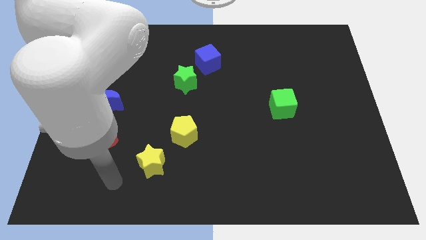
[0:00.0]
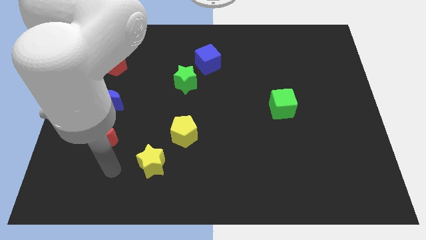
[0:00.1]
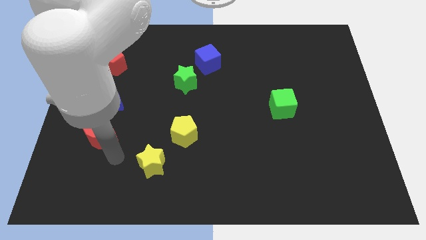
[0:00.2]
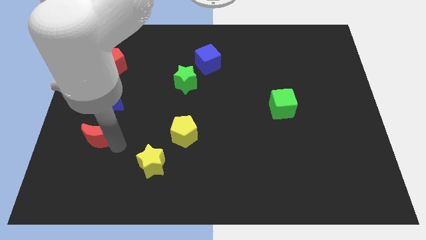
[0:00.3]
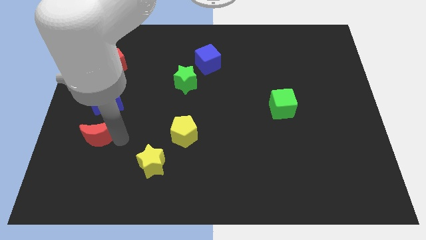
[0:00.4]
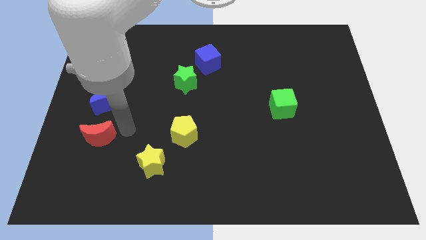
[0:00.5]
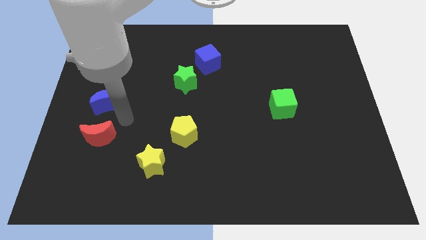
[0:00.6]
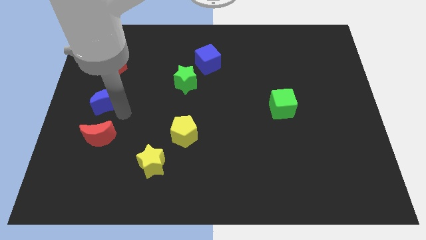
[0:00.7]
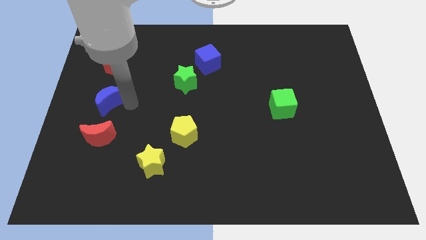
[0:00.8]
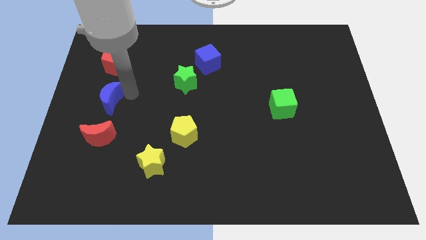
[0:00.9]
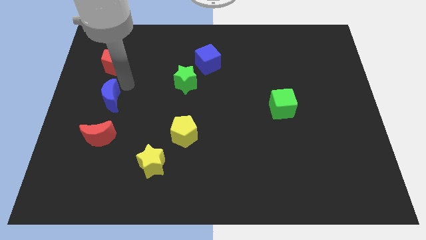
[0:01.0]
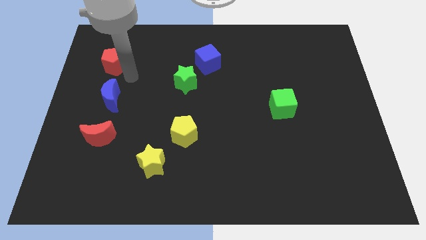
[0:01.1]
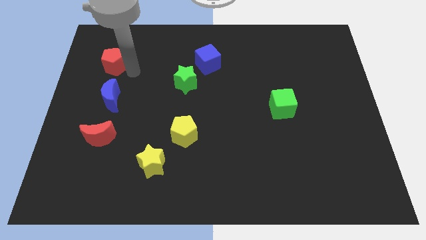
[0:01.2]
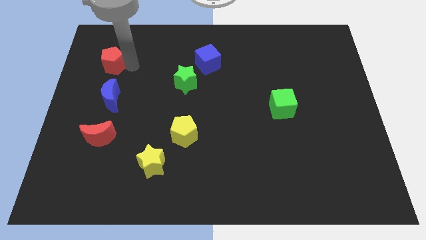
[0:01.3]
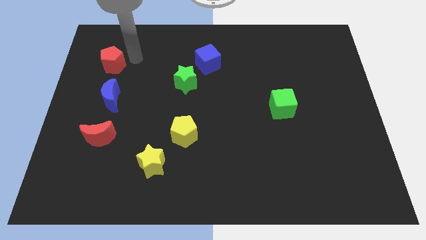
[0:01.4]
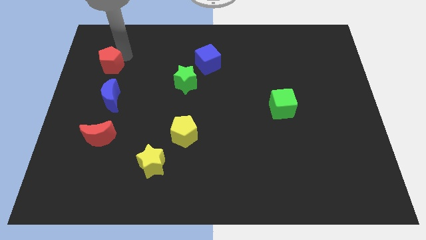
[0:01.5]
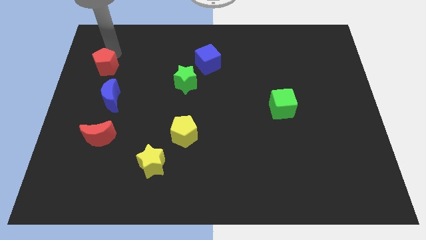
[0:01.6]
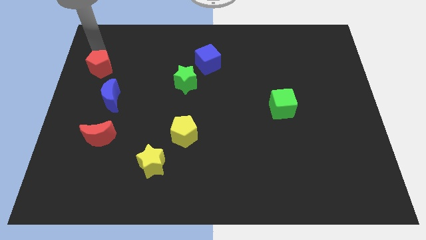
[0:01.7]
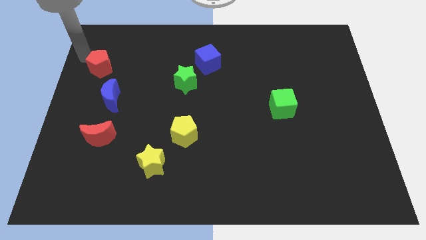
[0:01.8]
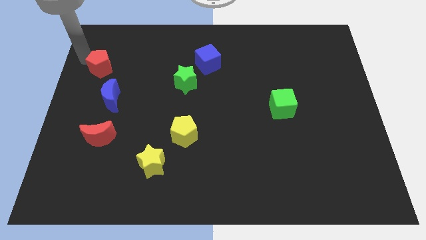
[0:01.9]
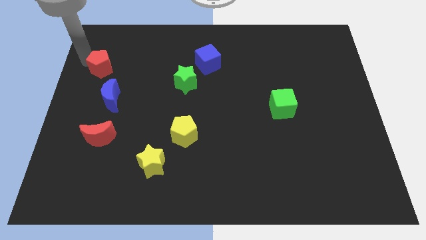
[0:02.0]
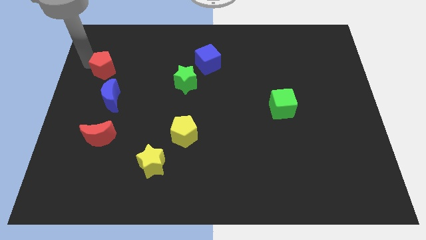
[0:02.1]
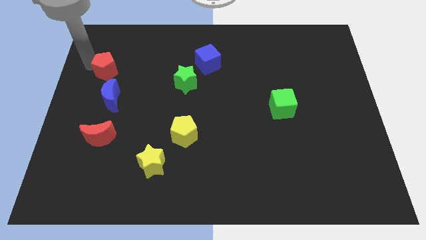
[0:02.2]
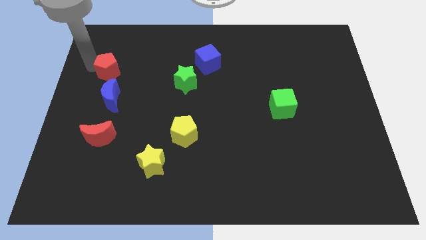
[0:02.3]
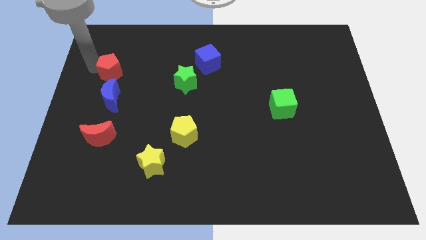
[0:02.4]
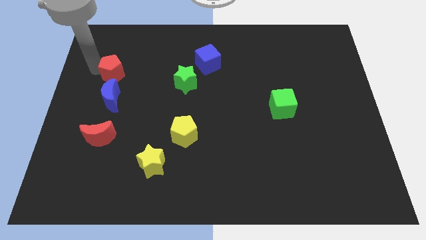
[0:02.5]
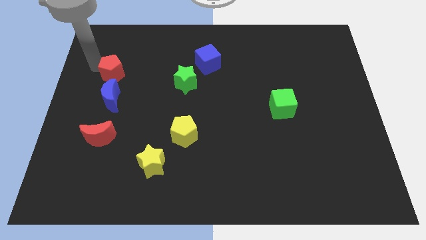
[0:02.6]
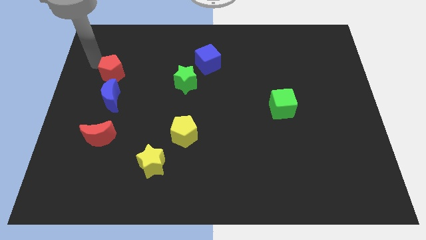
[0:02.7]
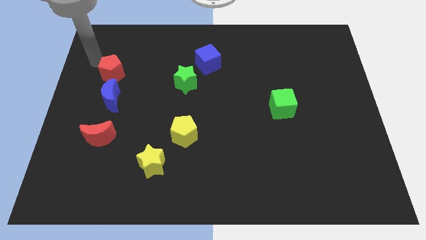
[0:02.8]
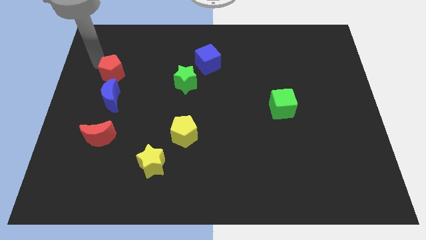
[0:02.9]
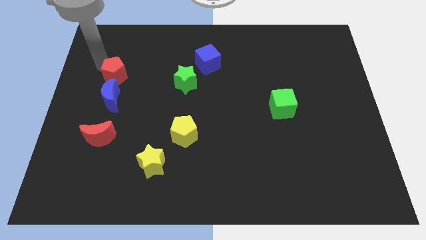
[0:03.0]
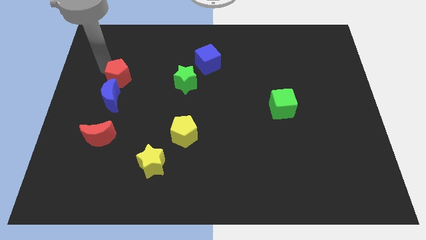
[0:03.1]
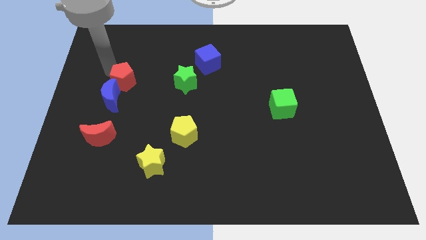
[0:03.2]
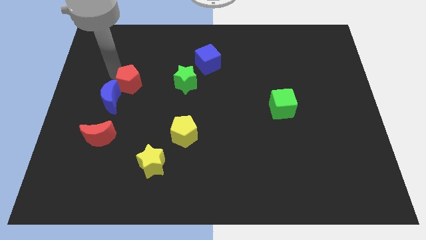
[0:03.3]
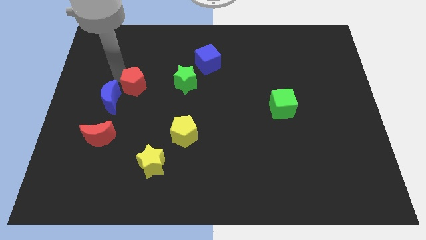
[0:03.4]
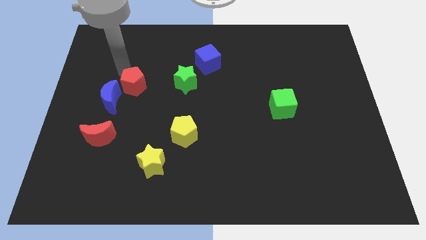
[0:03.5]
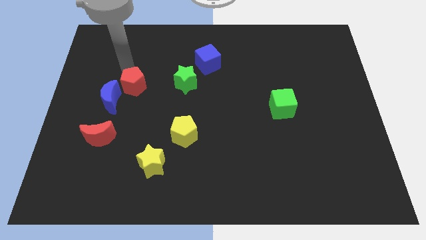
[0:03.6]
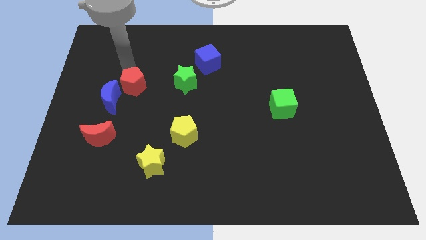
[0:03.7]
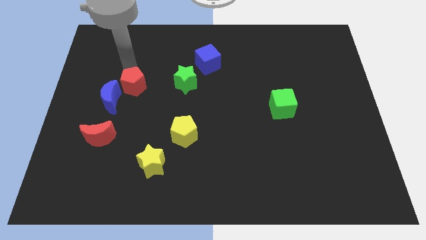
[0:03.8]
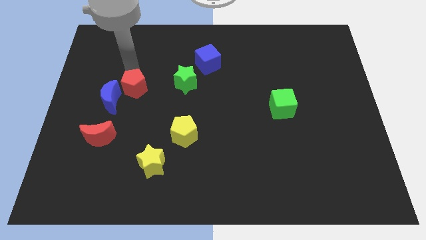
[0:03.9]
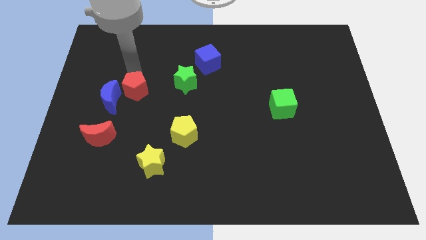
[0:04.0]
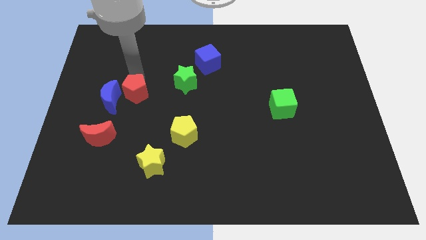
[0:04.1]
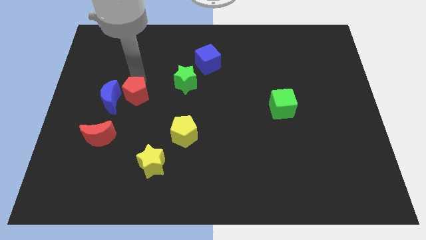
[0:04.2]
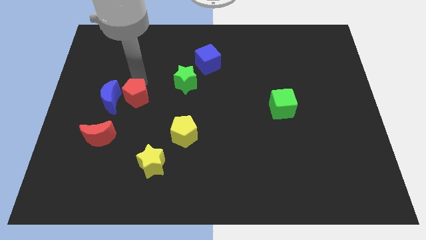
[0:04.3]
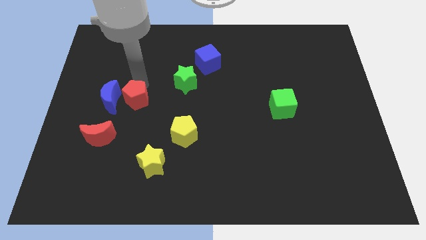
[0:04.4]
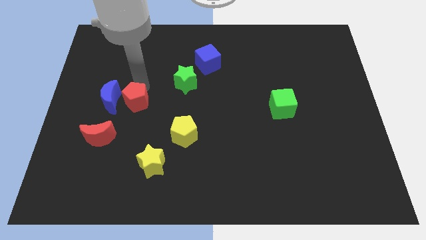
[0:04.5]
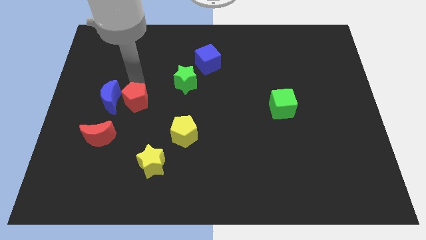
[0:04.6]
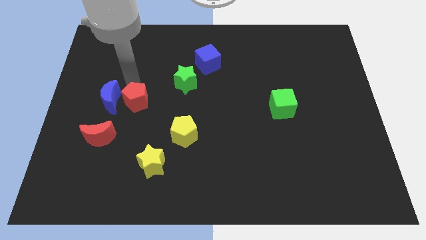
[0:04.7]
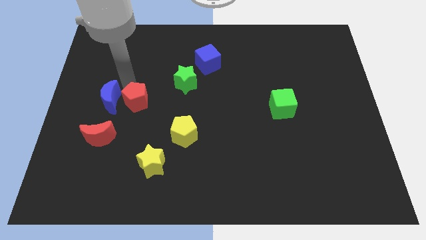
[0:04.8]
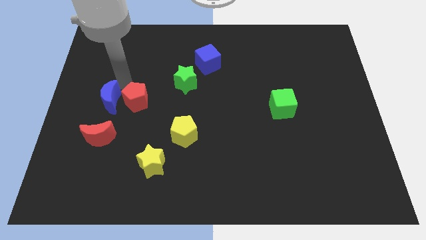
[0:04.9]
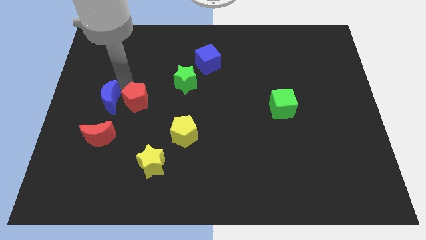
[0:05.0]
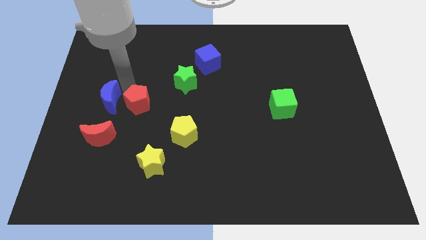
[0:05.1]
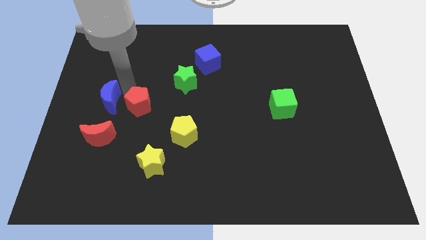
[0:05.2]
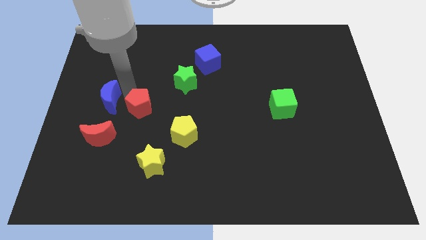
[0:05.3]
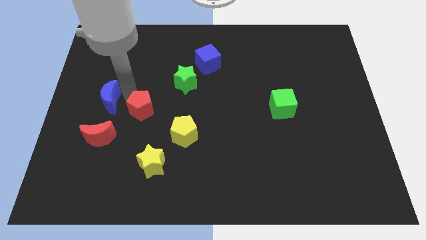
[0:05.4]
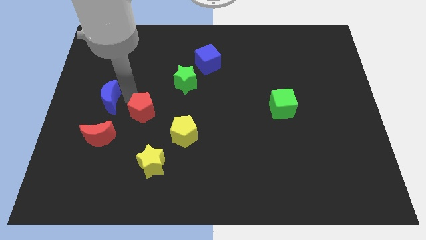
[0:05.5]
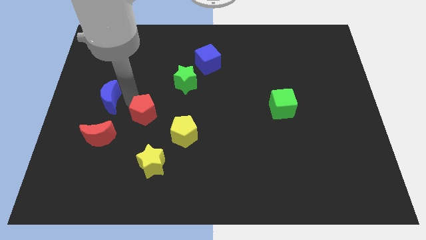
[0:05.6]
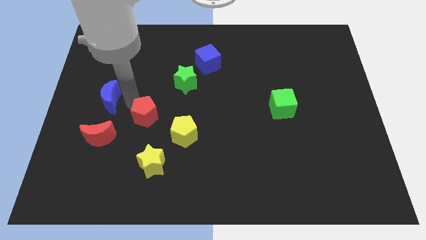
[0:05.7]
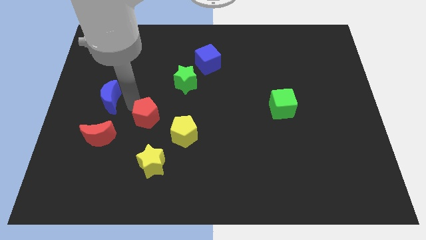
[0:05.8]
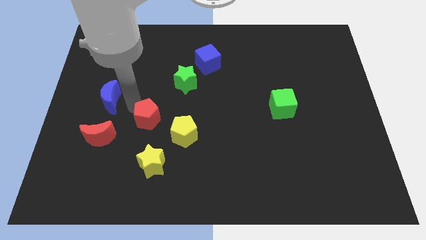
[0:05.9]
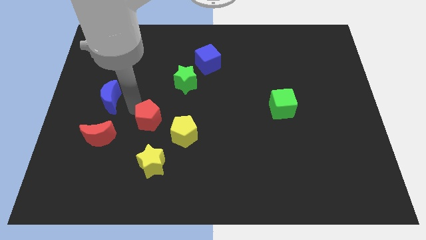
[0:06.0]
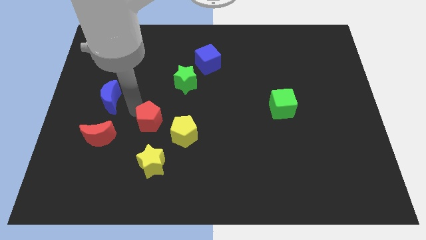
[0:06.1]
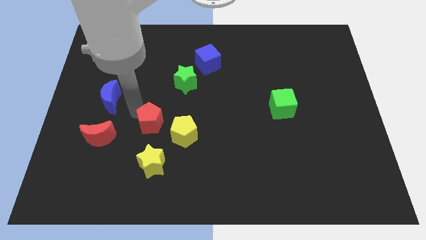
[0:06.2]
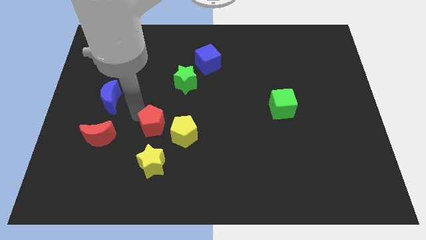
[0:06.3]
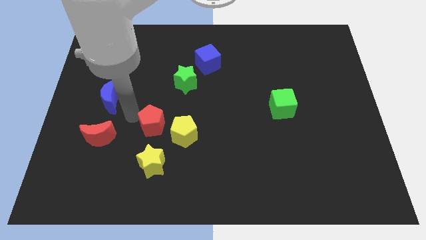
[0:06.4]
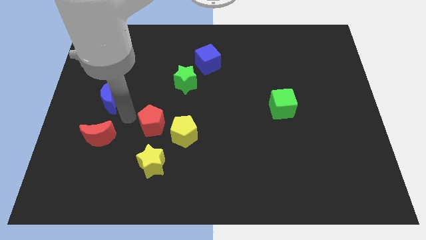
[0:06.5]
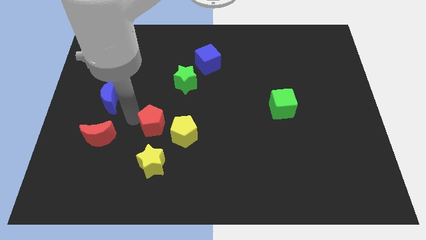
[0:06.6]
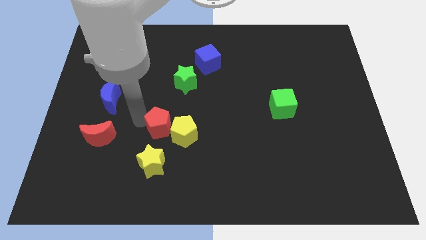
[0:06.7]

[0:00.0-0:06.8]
move the red pentagon towards the yellow pentagon
